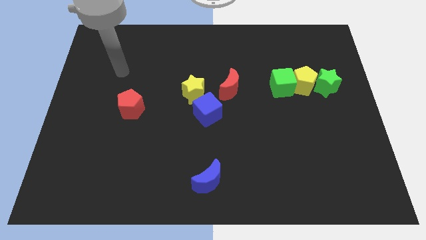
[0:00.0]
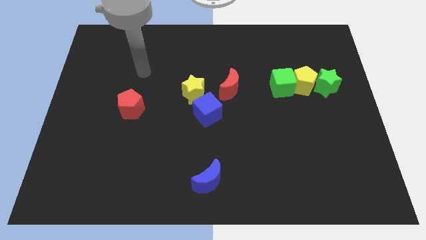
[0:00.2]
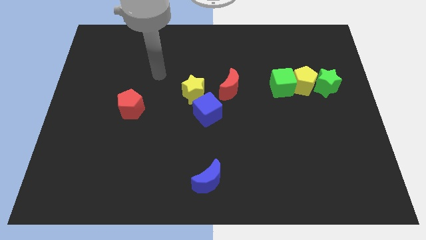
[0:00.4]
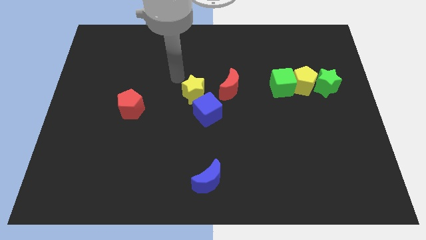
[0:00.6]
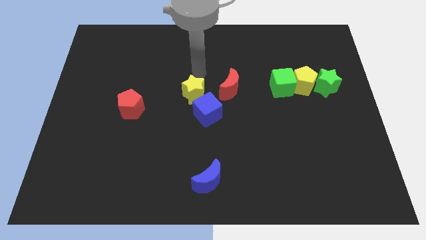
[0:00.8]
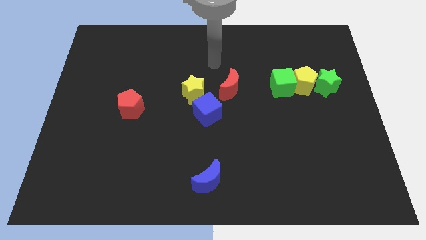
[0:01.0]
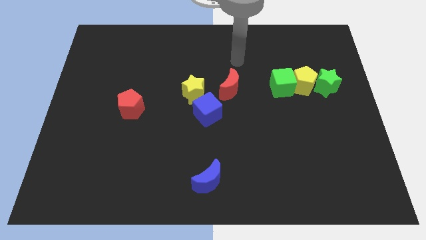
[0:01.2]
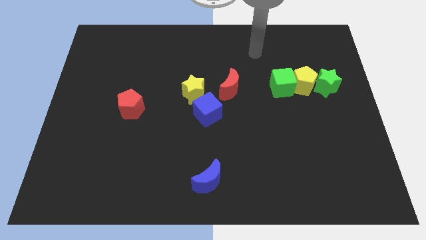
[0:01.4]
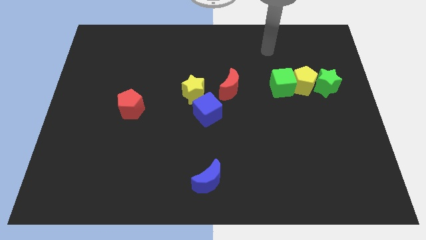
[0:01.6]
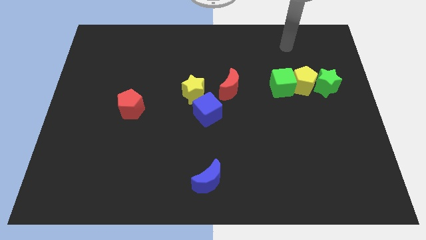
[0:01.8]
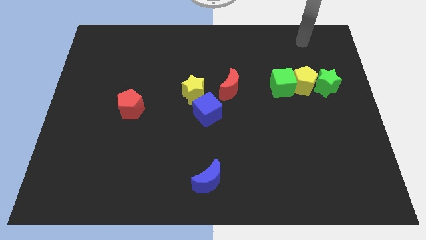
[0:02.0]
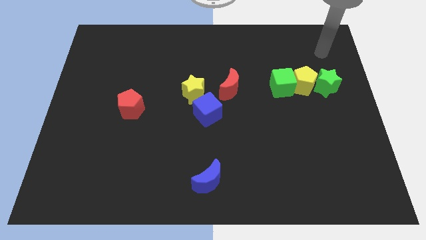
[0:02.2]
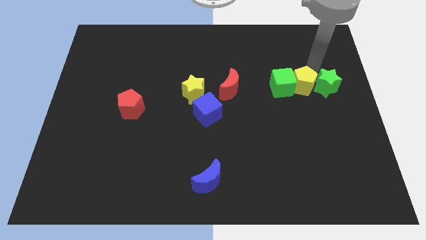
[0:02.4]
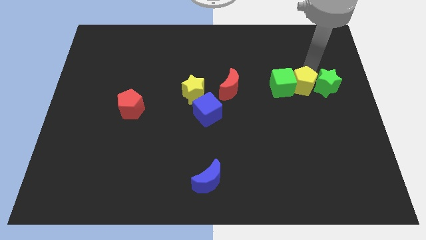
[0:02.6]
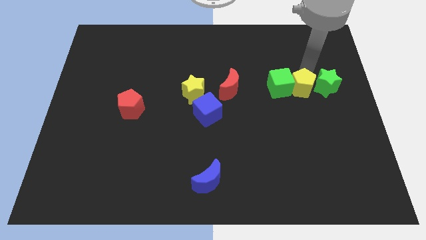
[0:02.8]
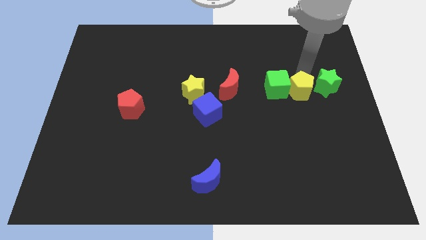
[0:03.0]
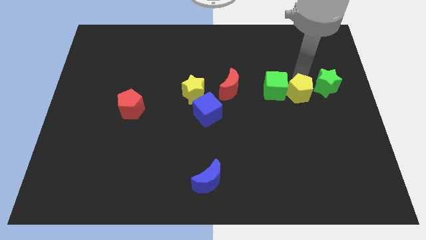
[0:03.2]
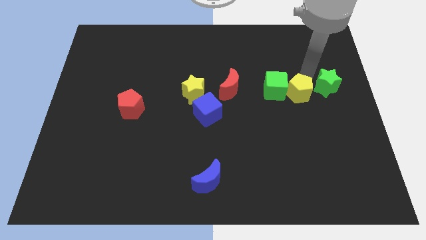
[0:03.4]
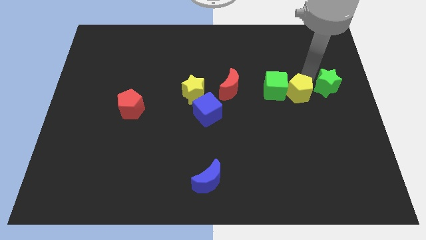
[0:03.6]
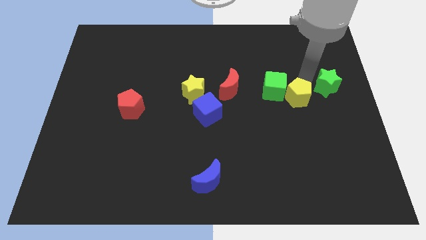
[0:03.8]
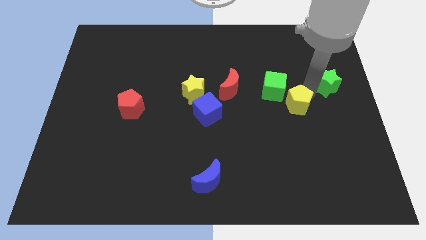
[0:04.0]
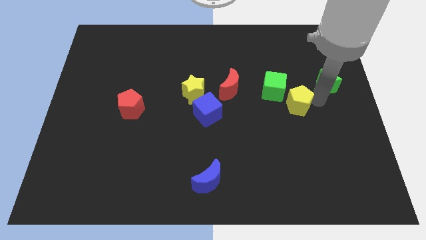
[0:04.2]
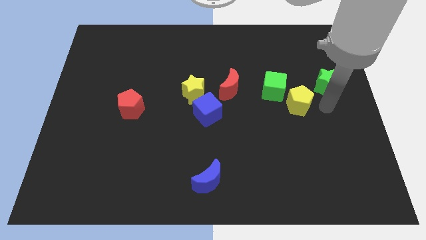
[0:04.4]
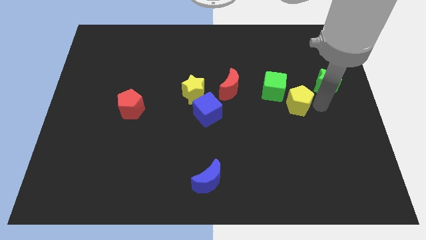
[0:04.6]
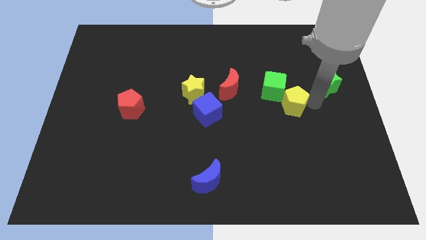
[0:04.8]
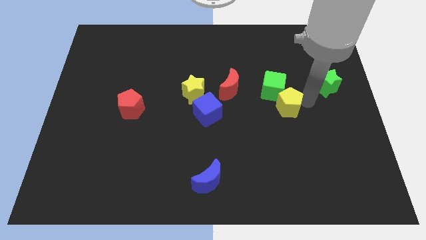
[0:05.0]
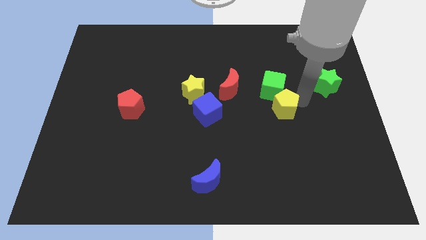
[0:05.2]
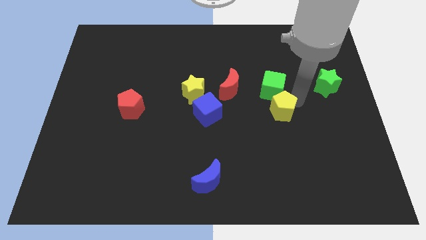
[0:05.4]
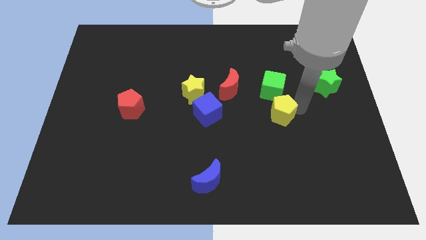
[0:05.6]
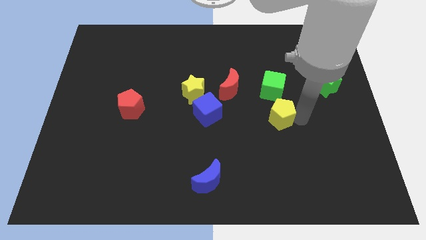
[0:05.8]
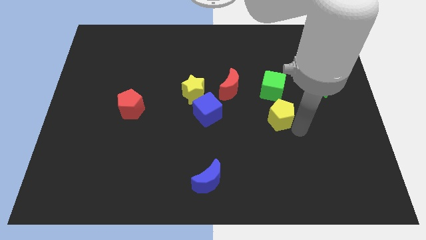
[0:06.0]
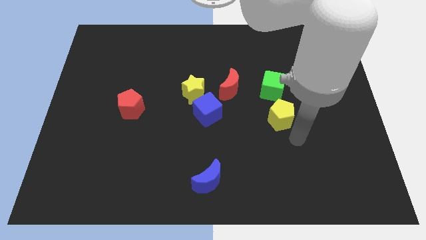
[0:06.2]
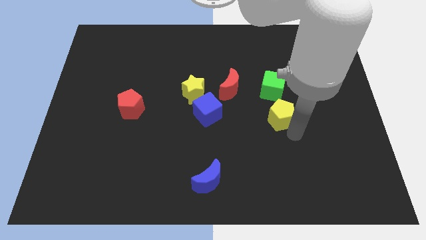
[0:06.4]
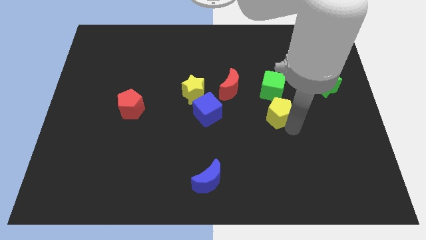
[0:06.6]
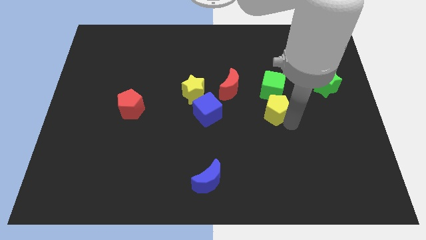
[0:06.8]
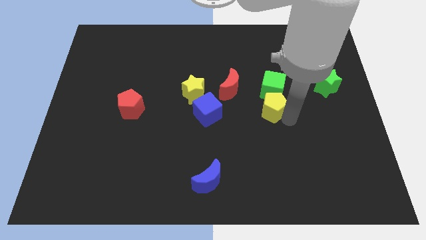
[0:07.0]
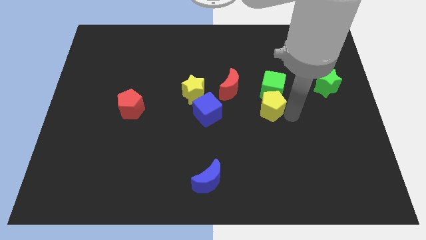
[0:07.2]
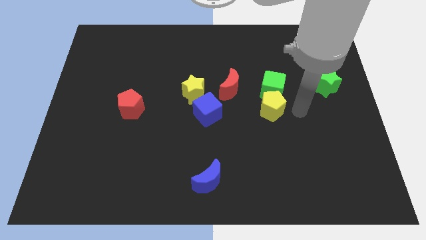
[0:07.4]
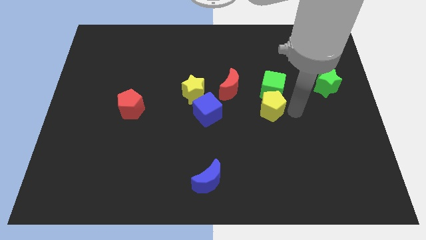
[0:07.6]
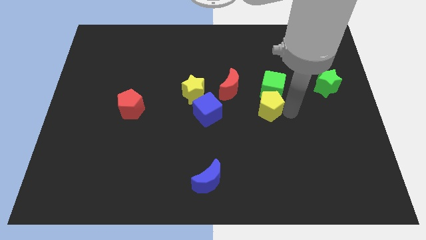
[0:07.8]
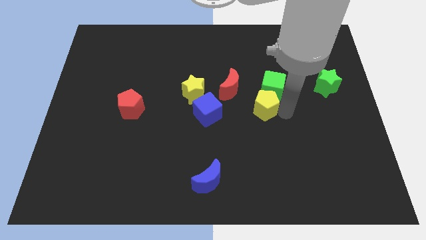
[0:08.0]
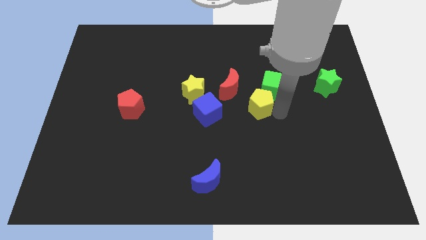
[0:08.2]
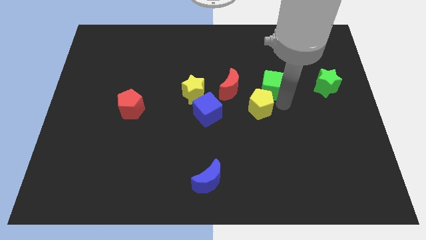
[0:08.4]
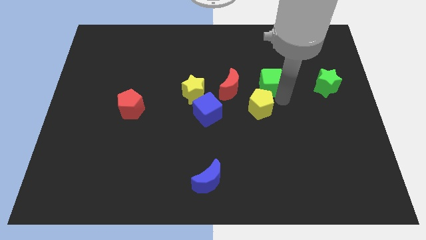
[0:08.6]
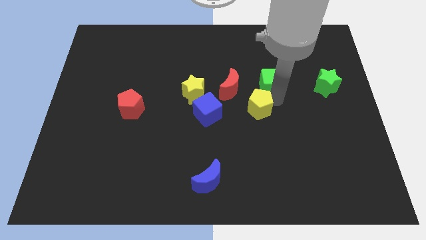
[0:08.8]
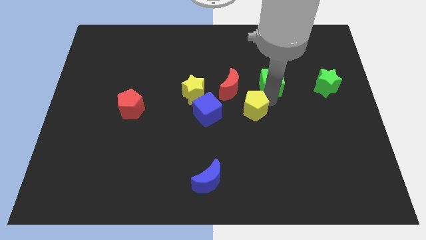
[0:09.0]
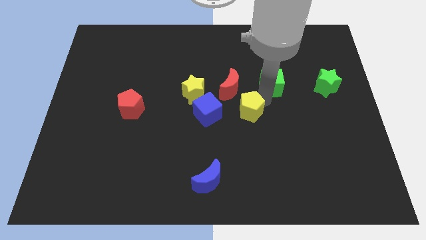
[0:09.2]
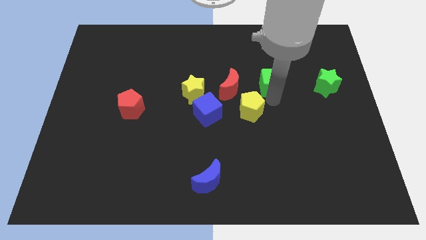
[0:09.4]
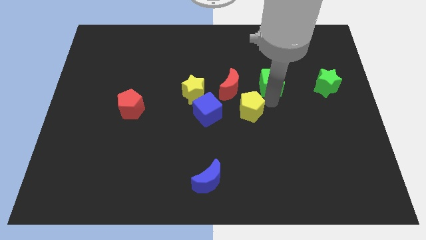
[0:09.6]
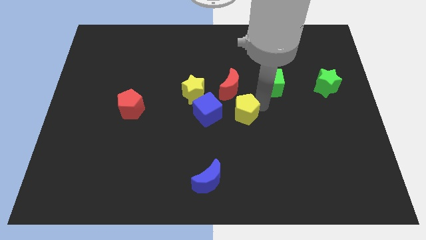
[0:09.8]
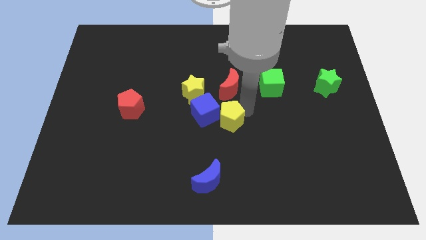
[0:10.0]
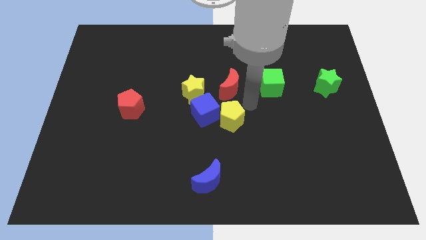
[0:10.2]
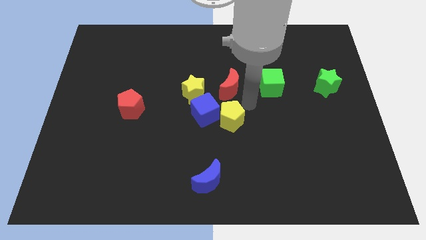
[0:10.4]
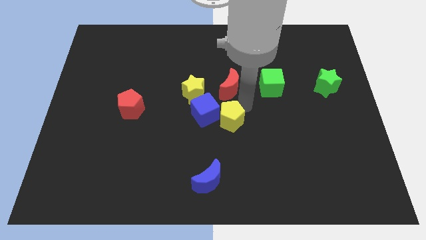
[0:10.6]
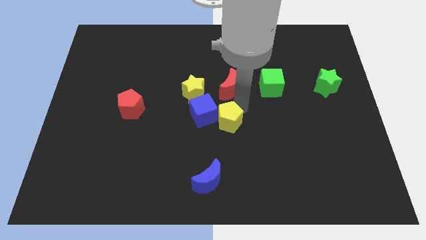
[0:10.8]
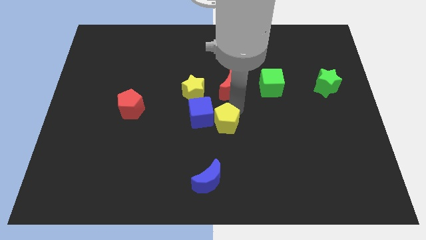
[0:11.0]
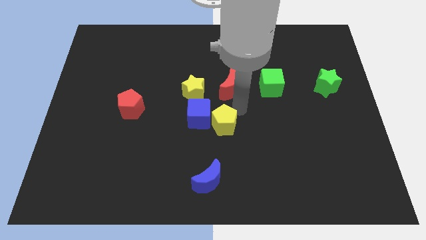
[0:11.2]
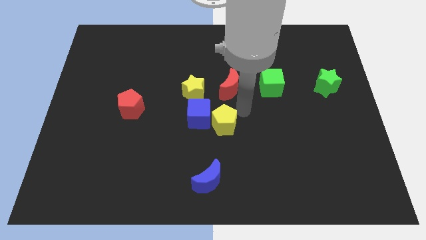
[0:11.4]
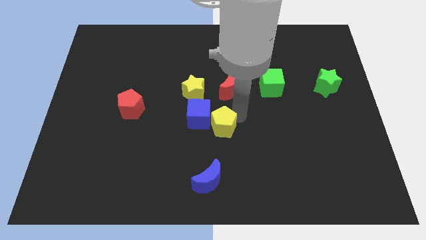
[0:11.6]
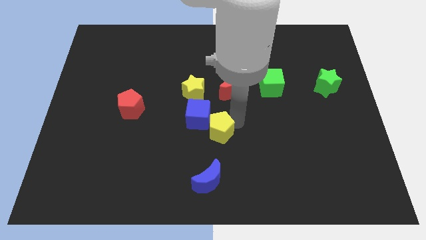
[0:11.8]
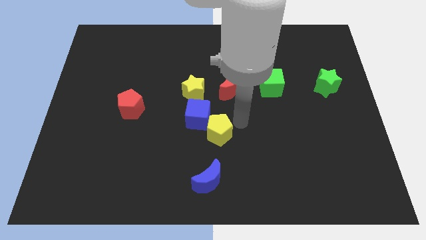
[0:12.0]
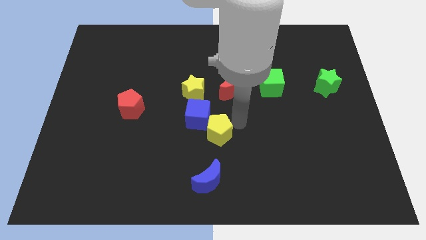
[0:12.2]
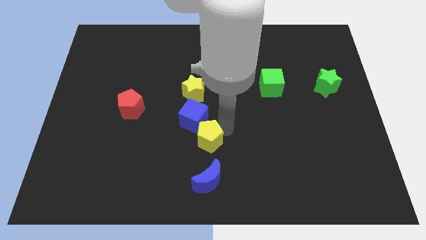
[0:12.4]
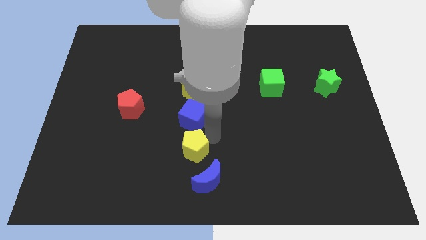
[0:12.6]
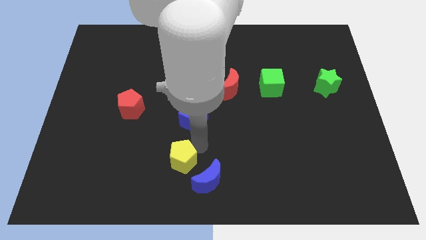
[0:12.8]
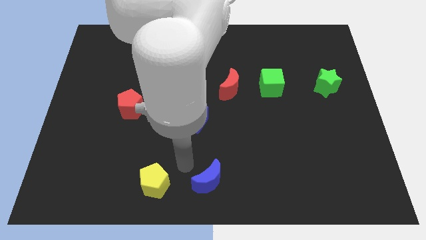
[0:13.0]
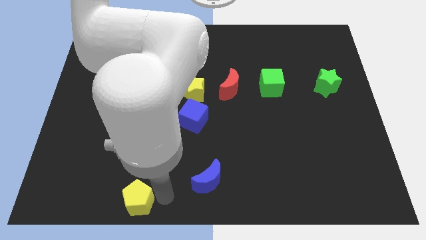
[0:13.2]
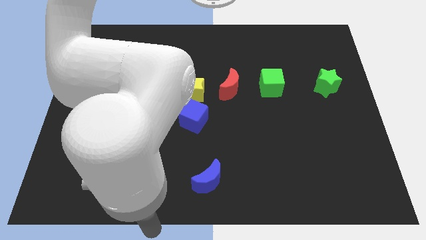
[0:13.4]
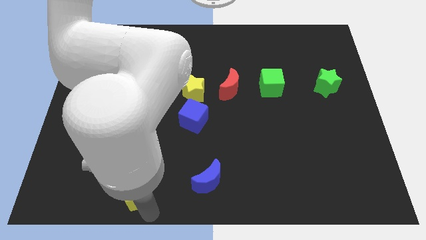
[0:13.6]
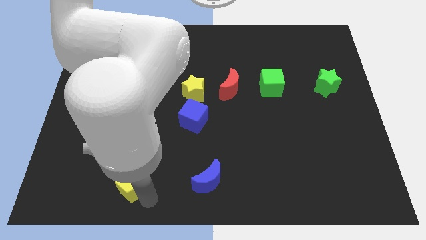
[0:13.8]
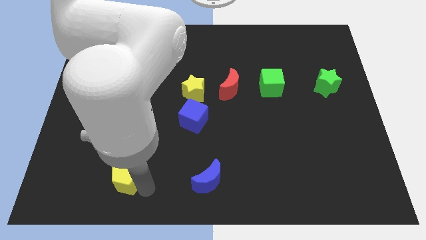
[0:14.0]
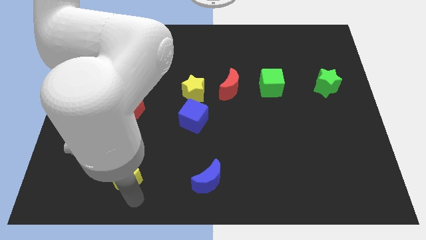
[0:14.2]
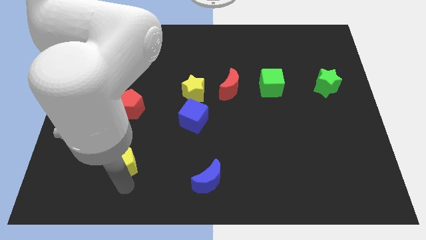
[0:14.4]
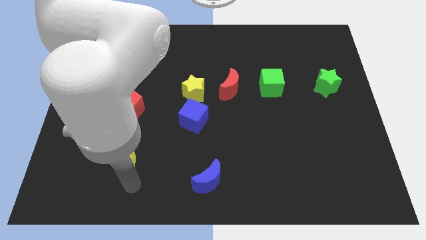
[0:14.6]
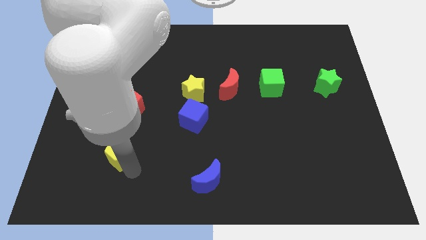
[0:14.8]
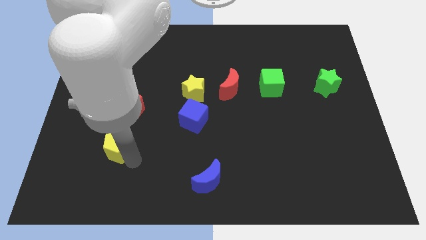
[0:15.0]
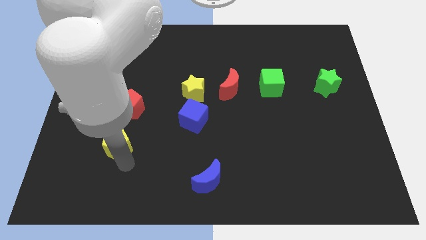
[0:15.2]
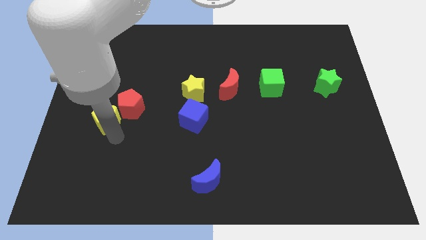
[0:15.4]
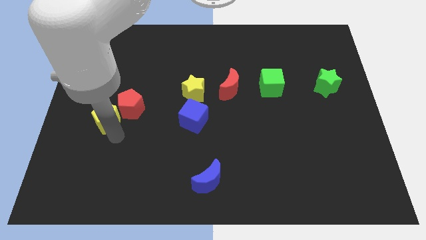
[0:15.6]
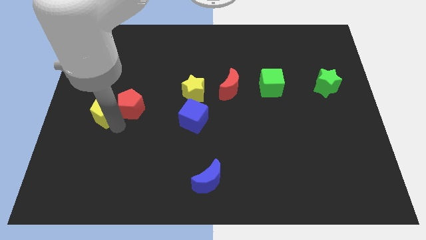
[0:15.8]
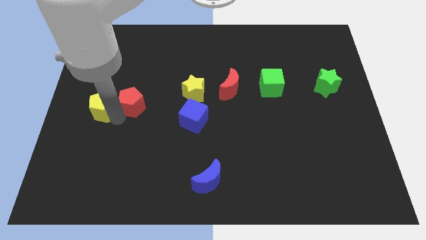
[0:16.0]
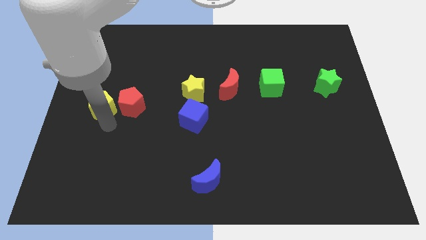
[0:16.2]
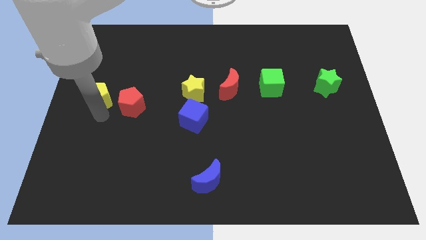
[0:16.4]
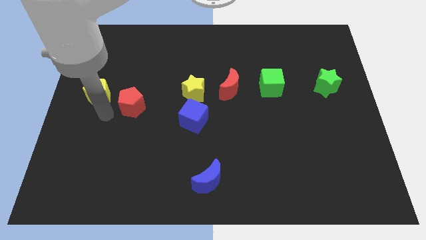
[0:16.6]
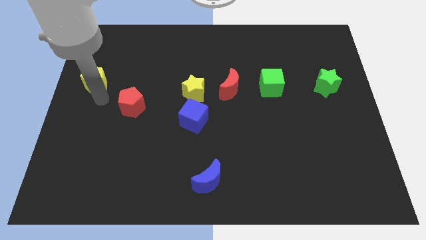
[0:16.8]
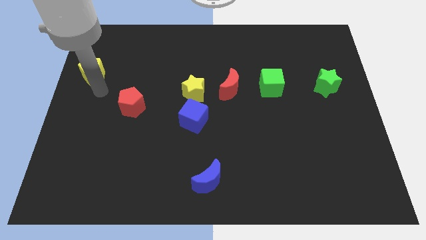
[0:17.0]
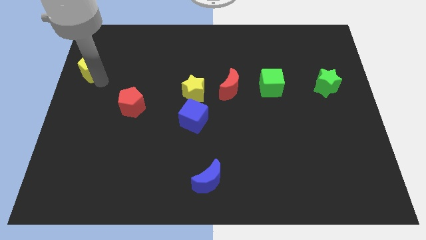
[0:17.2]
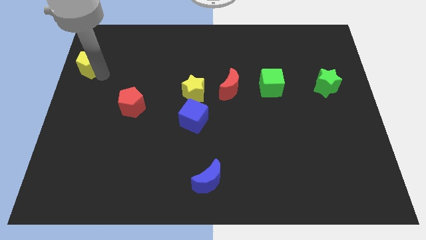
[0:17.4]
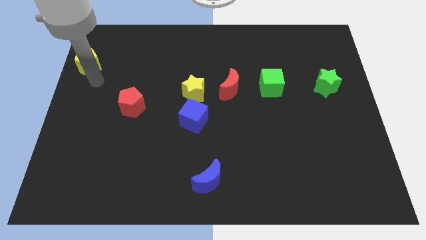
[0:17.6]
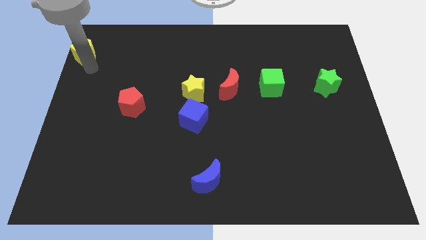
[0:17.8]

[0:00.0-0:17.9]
slide the yellow pentagon to the top left of the board
